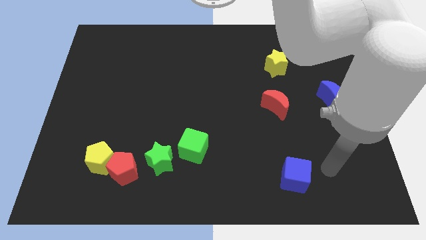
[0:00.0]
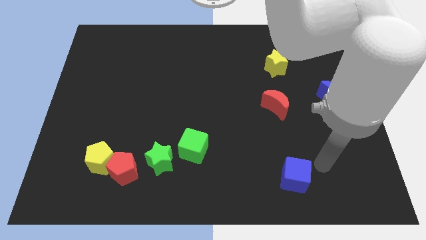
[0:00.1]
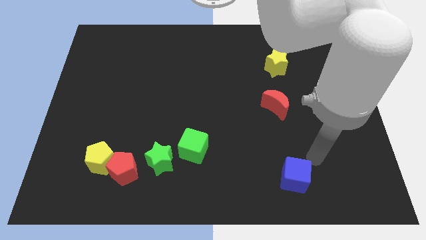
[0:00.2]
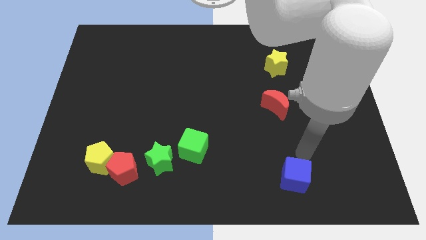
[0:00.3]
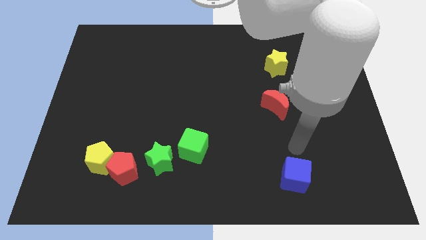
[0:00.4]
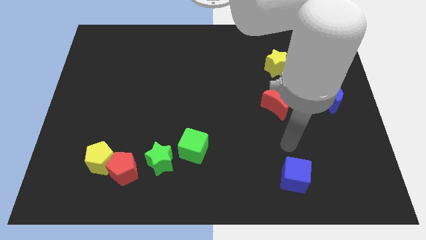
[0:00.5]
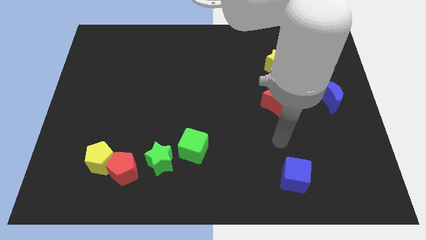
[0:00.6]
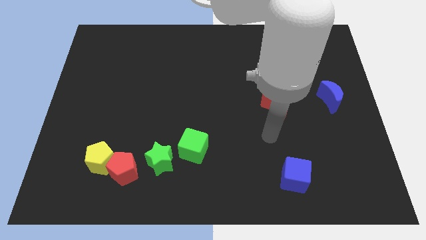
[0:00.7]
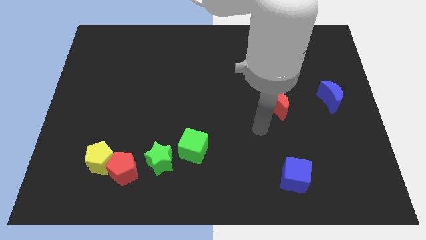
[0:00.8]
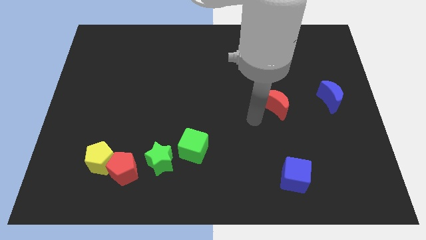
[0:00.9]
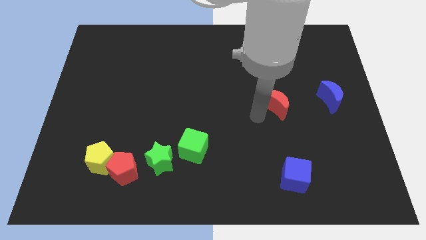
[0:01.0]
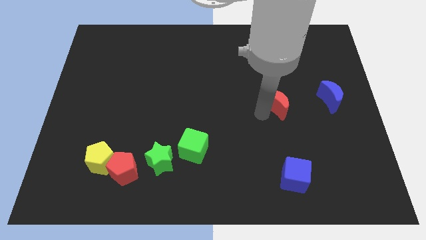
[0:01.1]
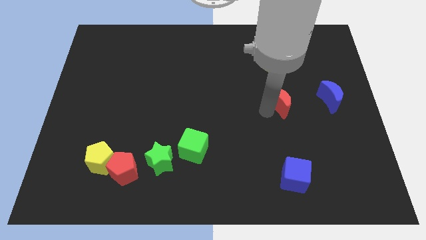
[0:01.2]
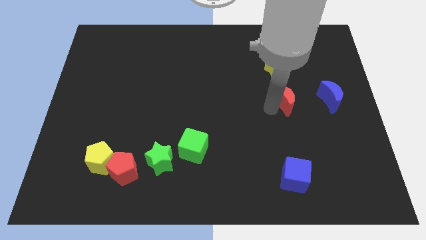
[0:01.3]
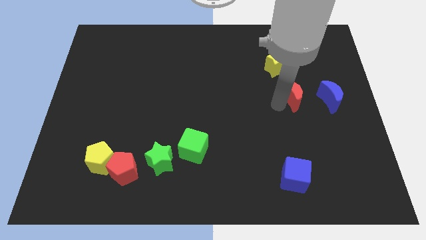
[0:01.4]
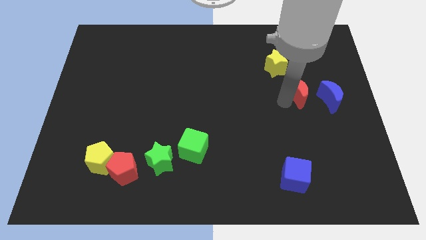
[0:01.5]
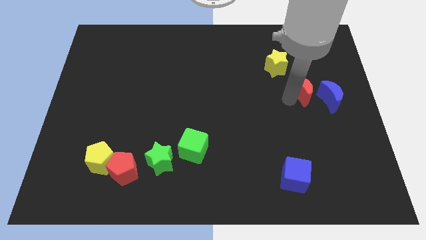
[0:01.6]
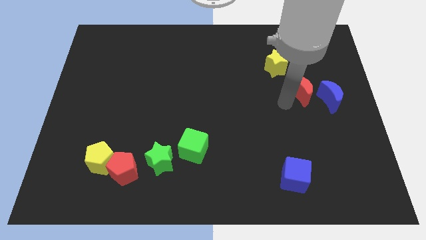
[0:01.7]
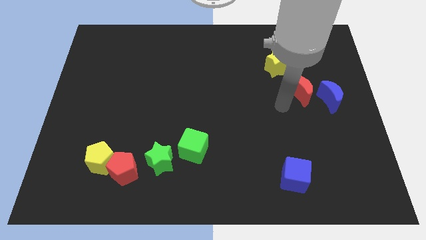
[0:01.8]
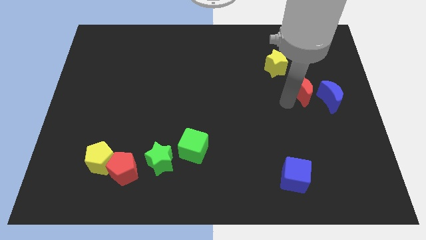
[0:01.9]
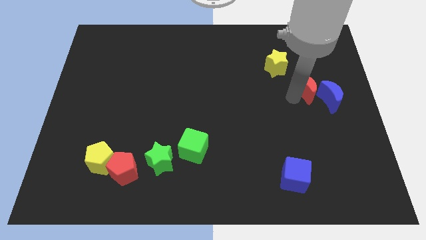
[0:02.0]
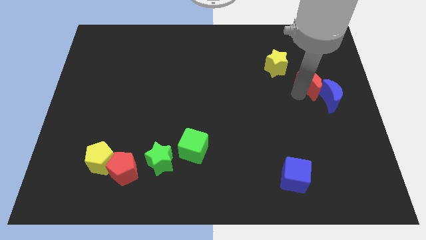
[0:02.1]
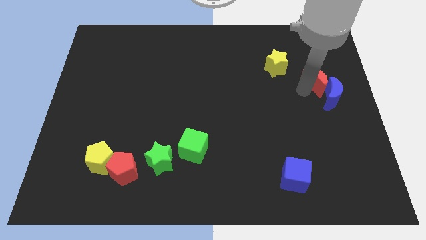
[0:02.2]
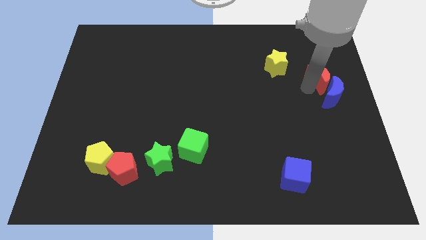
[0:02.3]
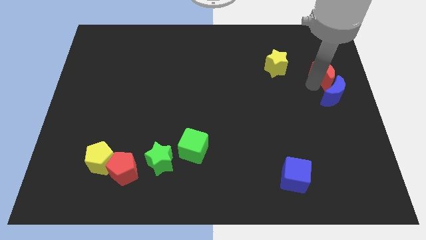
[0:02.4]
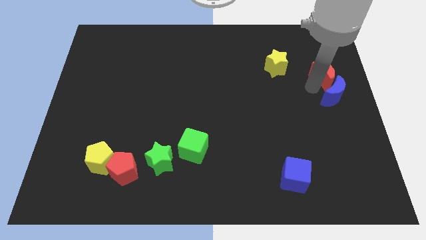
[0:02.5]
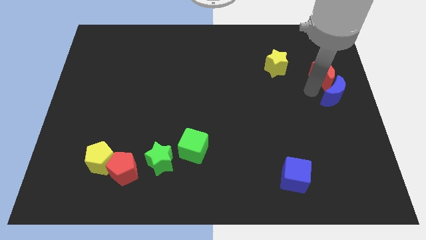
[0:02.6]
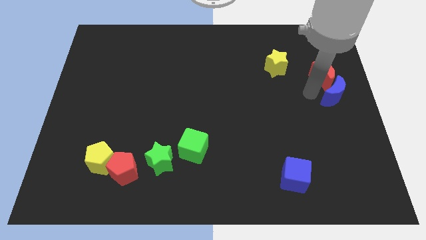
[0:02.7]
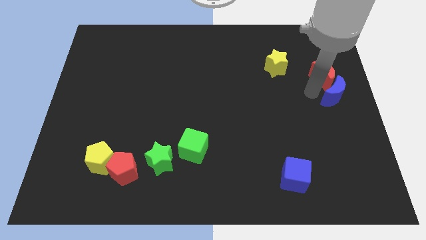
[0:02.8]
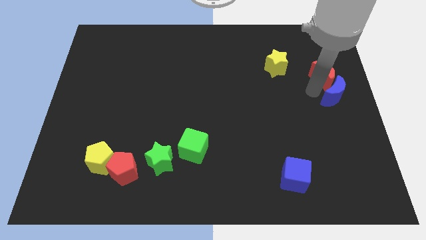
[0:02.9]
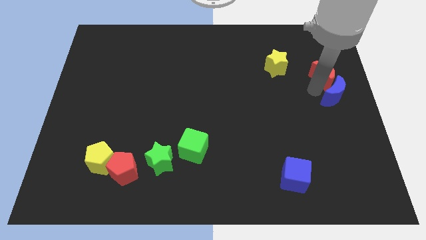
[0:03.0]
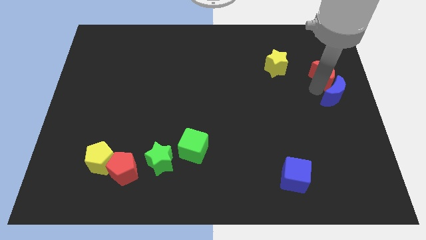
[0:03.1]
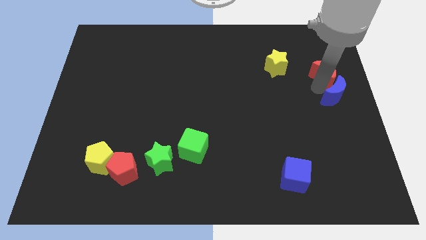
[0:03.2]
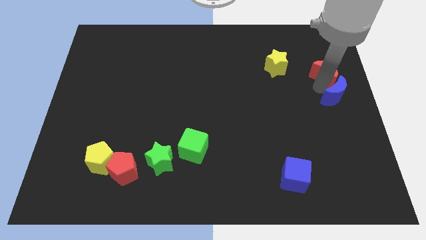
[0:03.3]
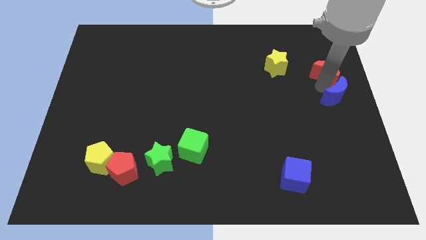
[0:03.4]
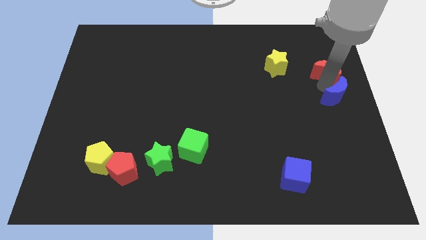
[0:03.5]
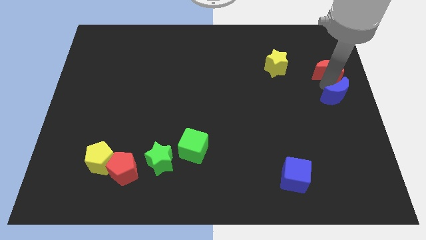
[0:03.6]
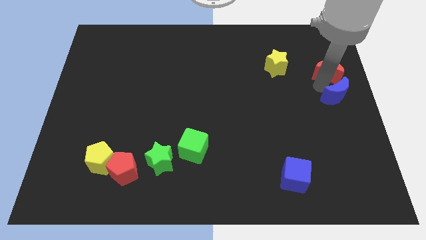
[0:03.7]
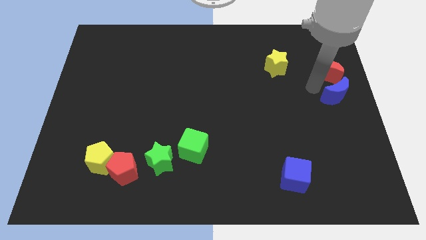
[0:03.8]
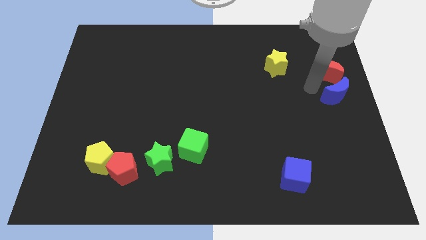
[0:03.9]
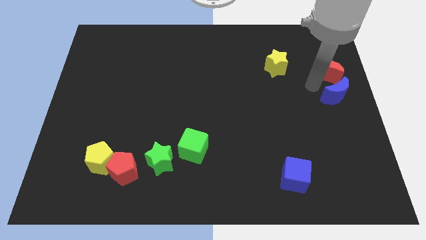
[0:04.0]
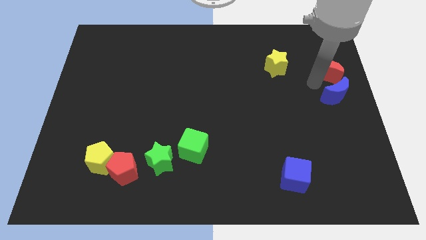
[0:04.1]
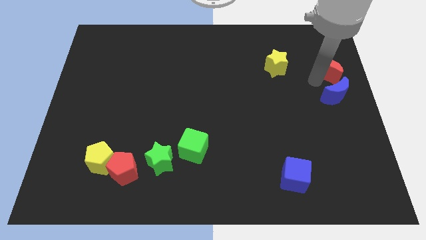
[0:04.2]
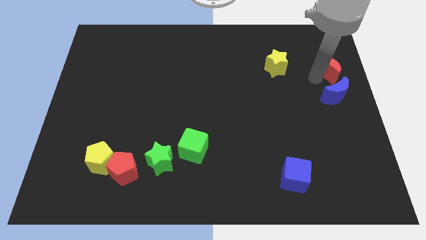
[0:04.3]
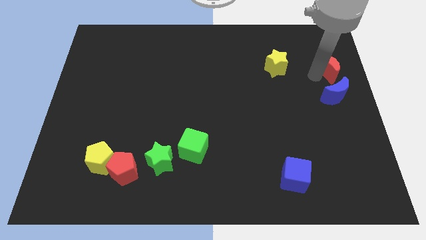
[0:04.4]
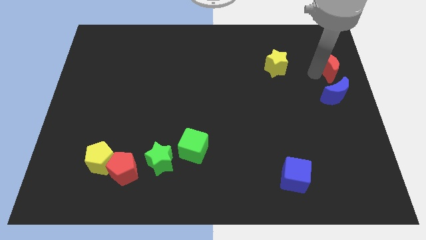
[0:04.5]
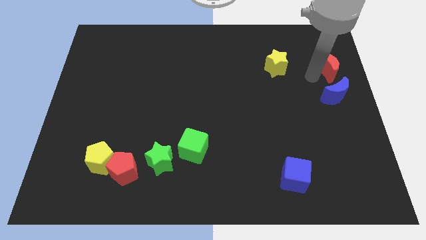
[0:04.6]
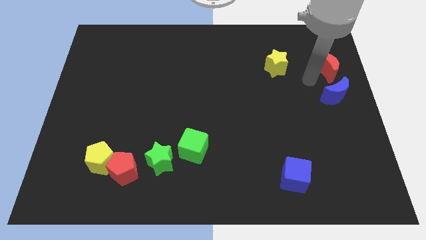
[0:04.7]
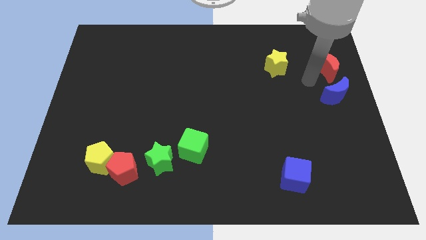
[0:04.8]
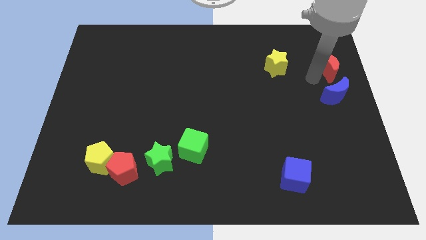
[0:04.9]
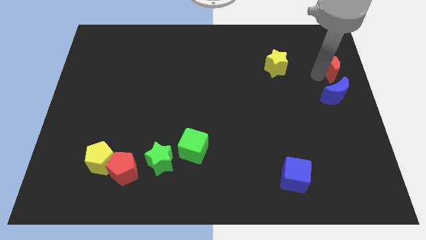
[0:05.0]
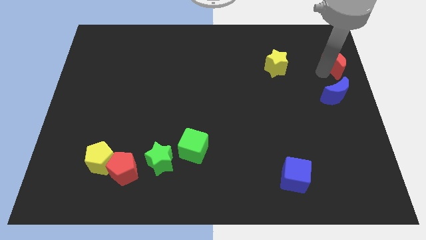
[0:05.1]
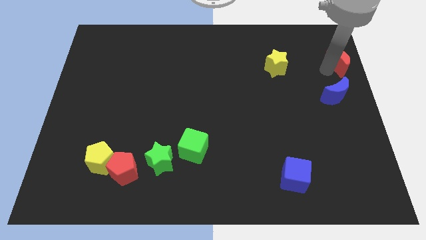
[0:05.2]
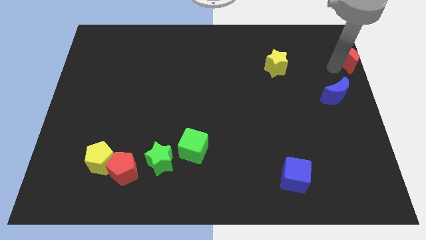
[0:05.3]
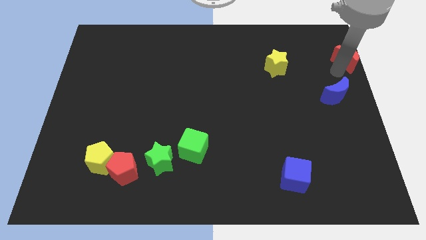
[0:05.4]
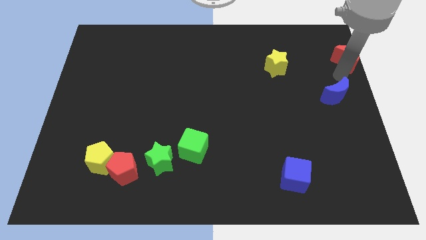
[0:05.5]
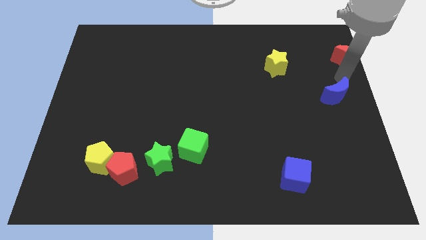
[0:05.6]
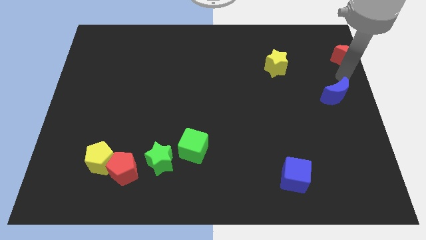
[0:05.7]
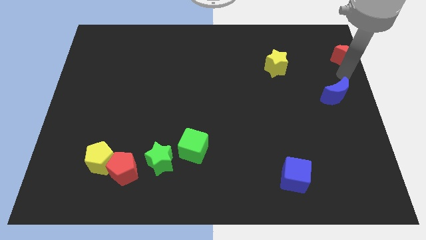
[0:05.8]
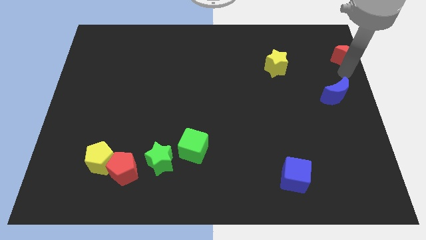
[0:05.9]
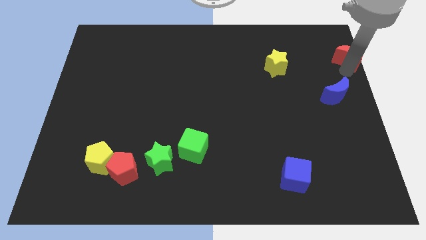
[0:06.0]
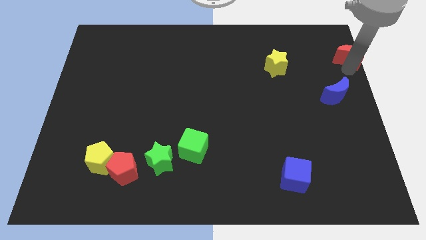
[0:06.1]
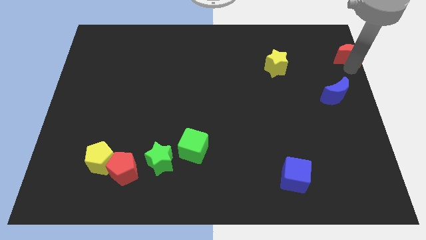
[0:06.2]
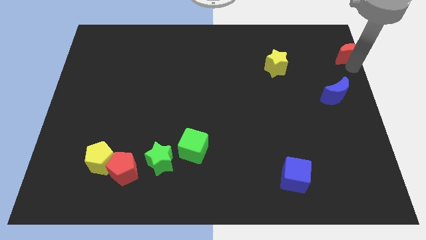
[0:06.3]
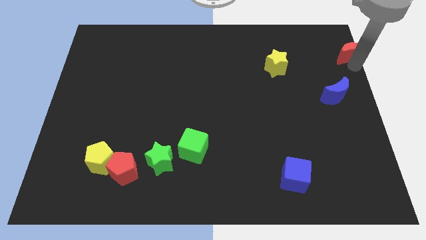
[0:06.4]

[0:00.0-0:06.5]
slide the red moon to the top right corner
